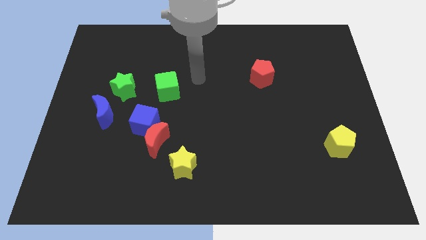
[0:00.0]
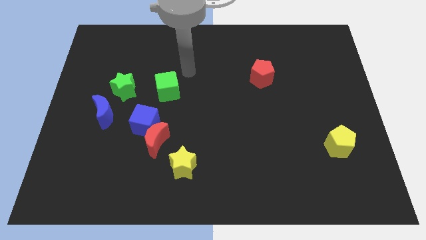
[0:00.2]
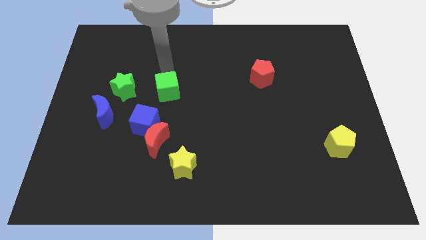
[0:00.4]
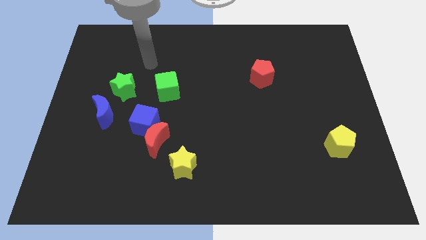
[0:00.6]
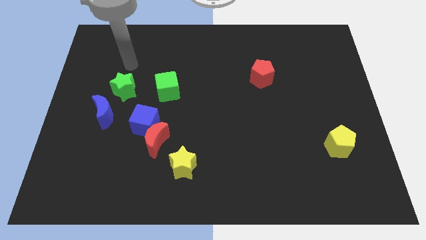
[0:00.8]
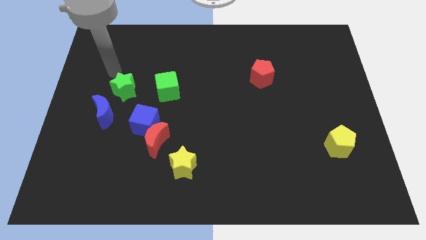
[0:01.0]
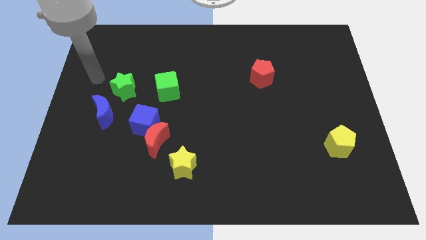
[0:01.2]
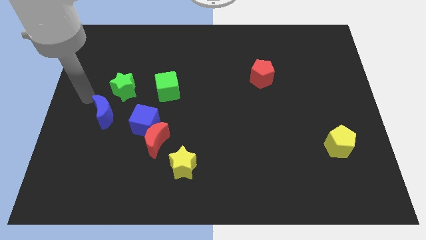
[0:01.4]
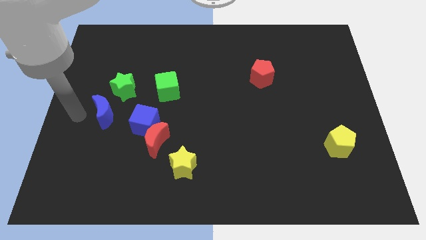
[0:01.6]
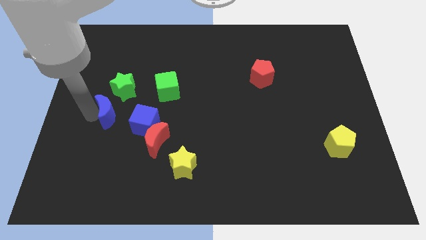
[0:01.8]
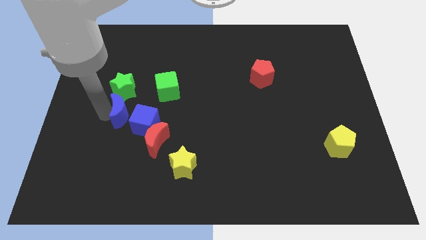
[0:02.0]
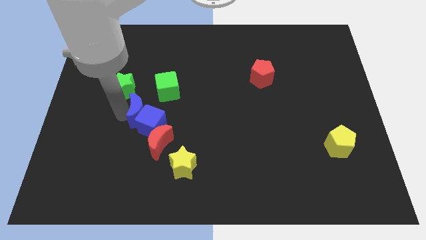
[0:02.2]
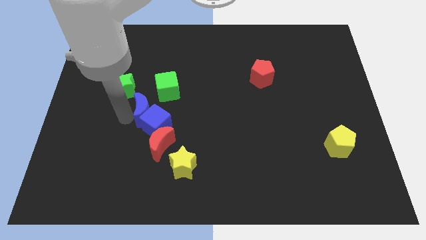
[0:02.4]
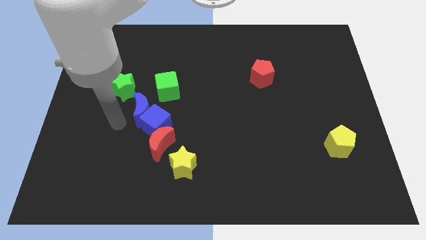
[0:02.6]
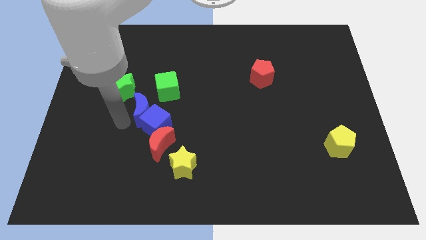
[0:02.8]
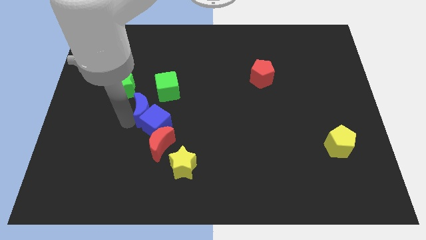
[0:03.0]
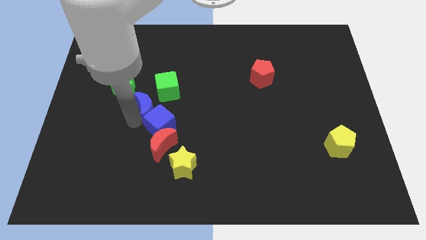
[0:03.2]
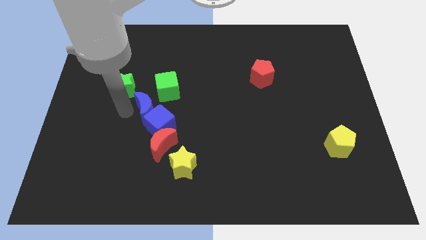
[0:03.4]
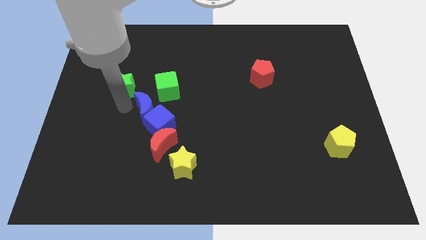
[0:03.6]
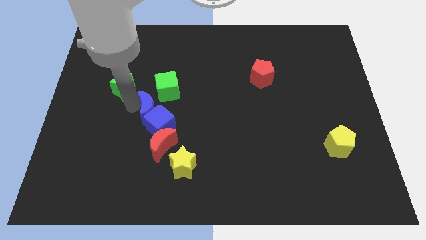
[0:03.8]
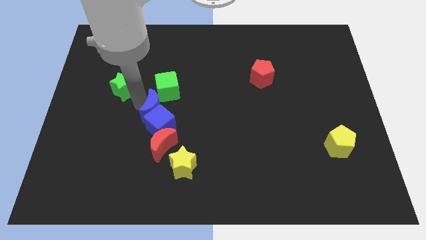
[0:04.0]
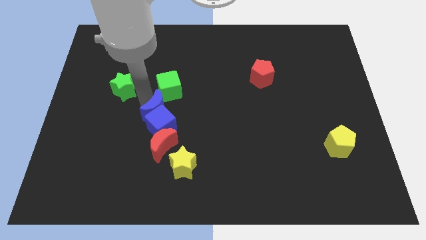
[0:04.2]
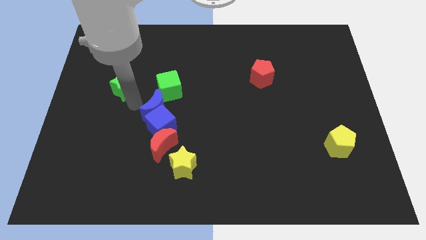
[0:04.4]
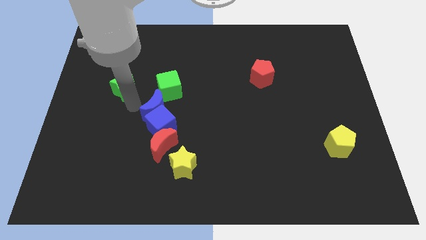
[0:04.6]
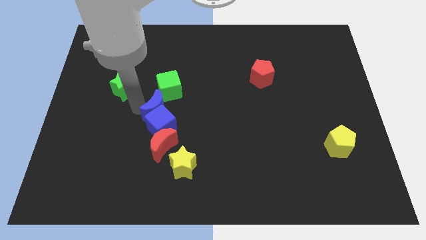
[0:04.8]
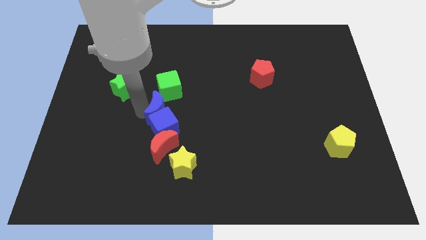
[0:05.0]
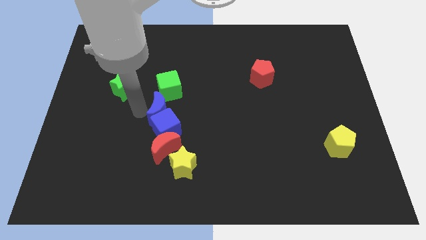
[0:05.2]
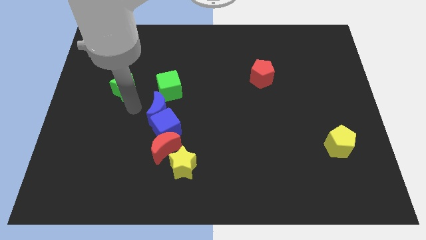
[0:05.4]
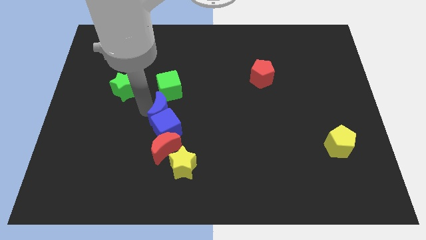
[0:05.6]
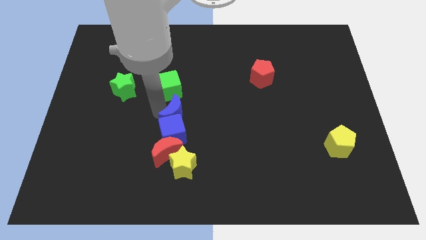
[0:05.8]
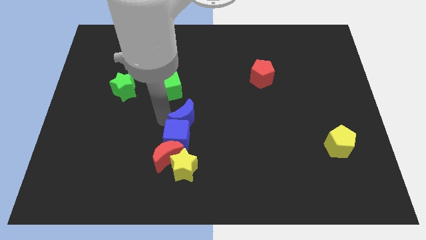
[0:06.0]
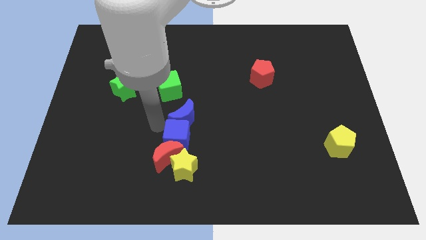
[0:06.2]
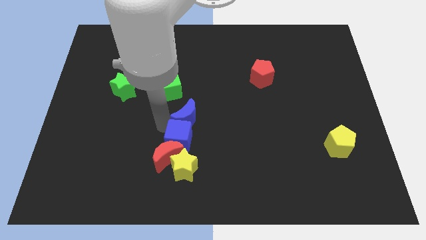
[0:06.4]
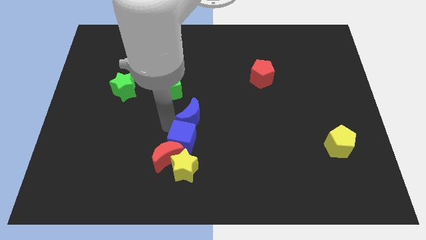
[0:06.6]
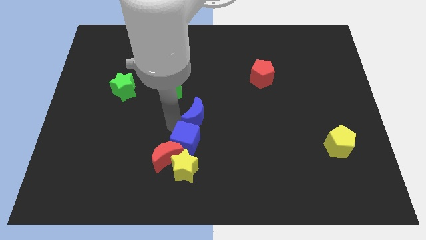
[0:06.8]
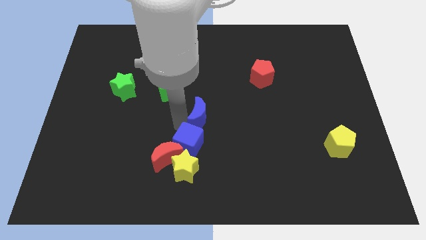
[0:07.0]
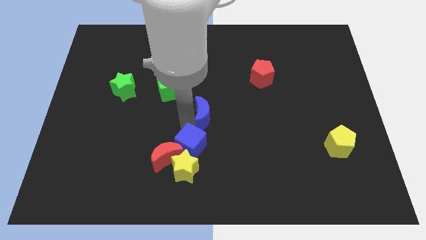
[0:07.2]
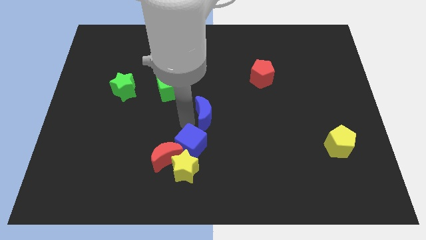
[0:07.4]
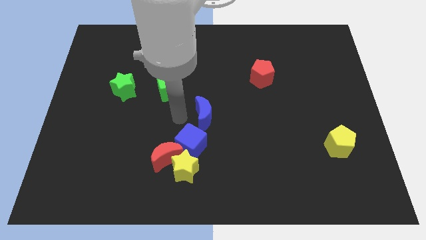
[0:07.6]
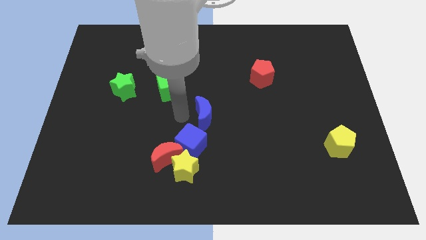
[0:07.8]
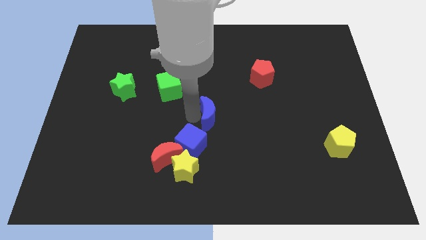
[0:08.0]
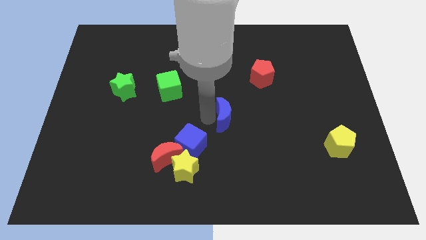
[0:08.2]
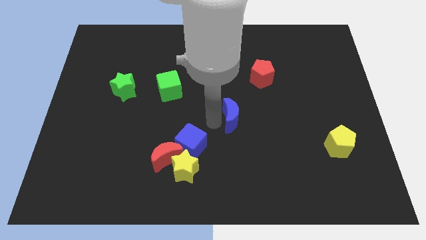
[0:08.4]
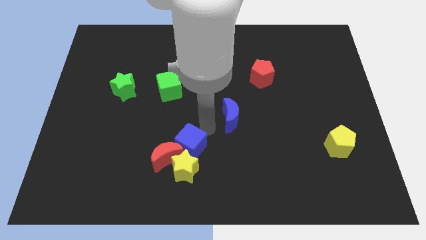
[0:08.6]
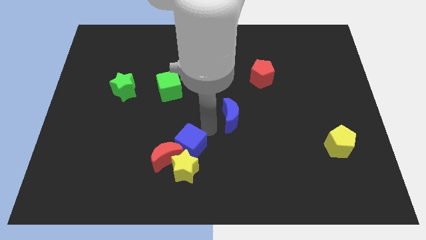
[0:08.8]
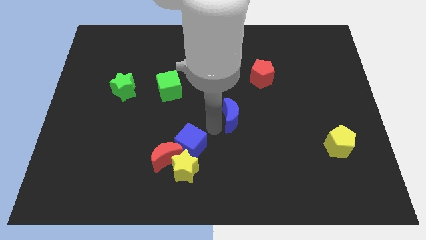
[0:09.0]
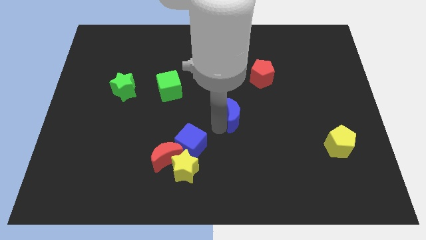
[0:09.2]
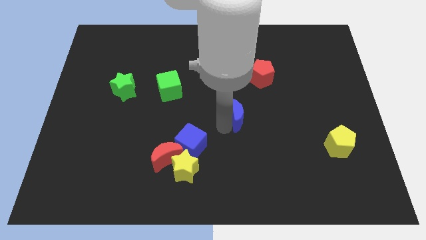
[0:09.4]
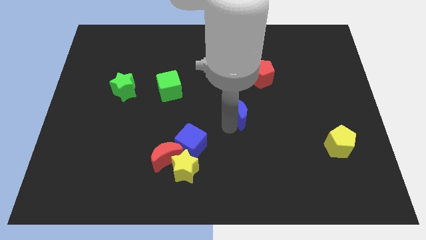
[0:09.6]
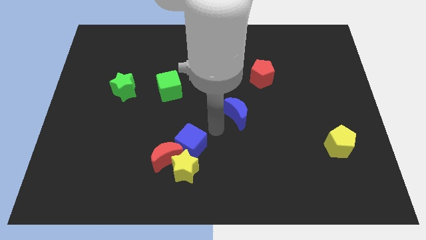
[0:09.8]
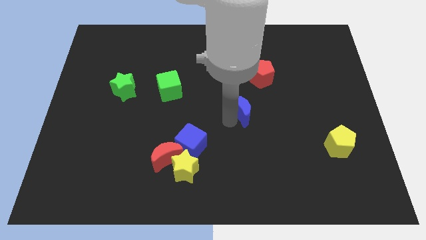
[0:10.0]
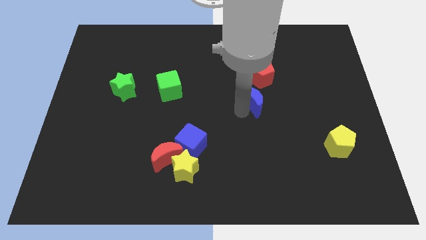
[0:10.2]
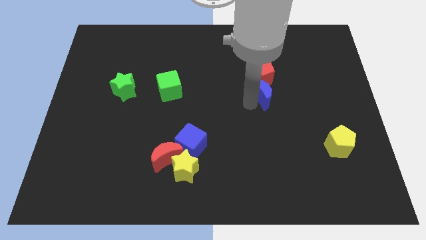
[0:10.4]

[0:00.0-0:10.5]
slide the blue moon to the bottom right side of the red pentagon
